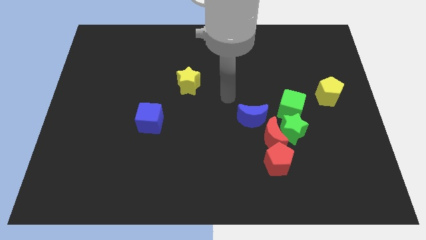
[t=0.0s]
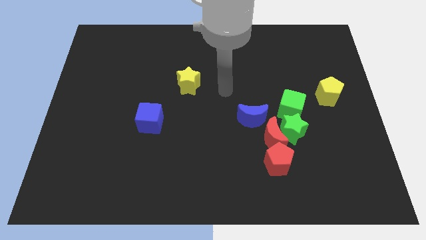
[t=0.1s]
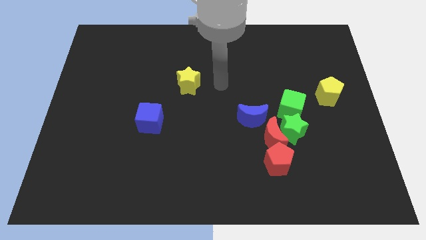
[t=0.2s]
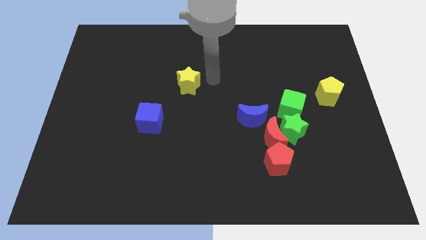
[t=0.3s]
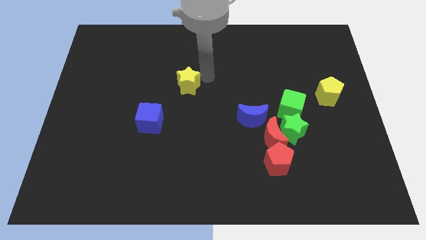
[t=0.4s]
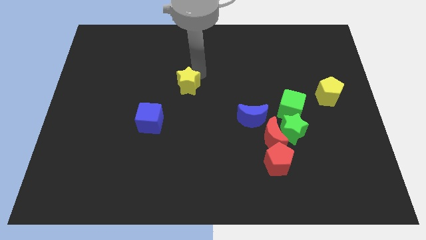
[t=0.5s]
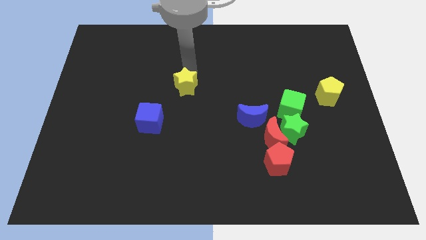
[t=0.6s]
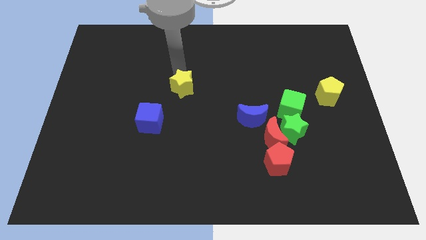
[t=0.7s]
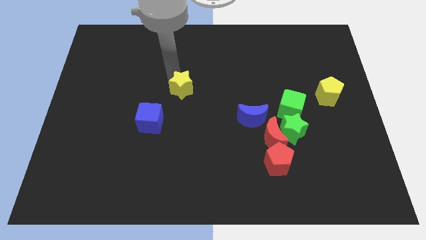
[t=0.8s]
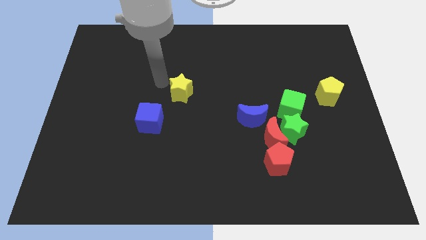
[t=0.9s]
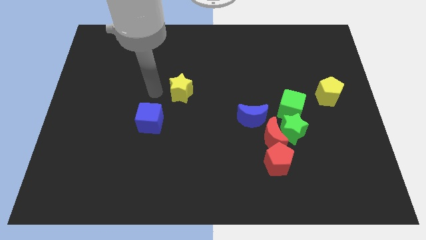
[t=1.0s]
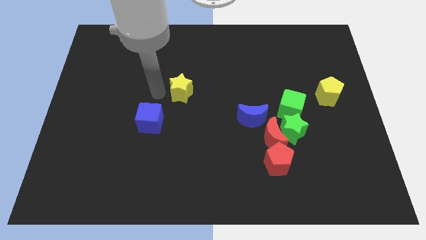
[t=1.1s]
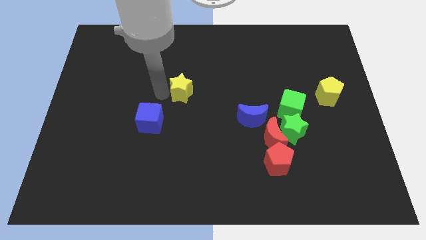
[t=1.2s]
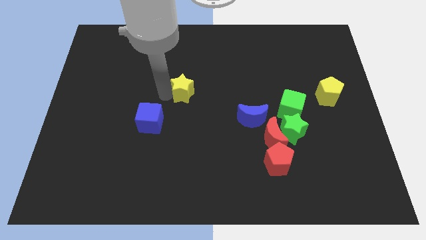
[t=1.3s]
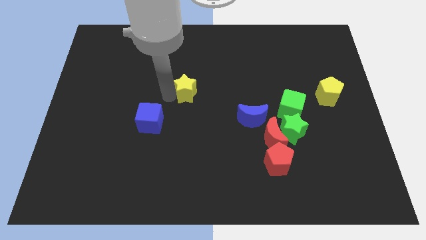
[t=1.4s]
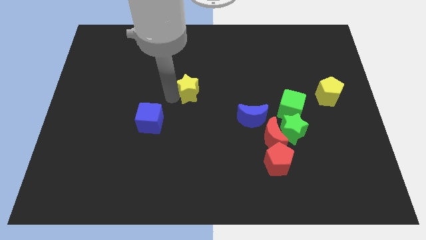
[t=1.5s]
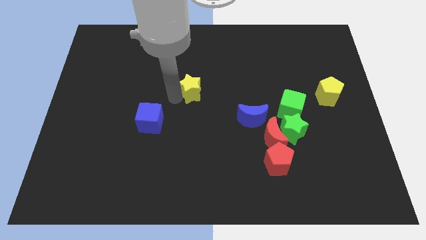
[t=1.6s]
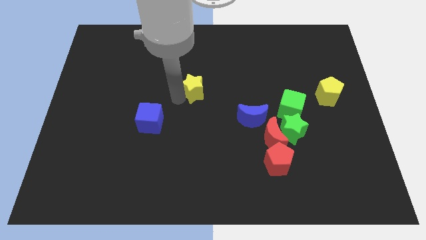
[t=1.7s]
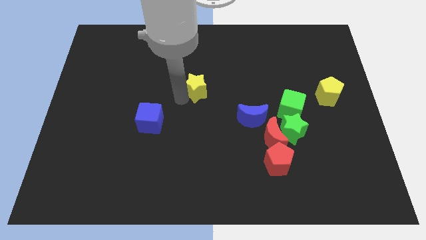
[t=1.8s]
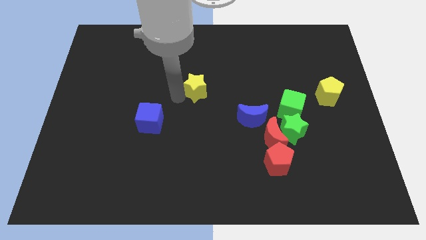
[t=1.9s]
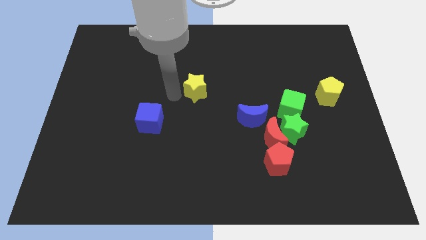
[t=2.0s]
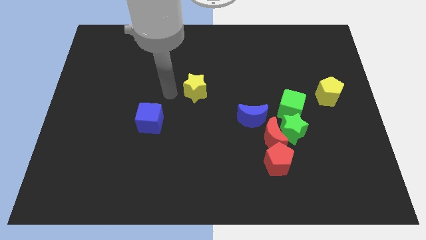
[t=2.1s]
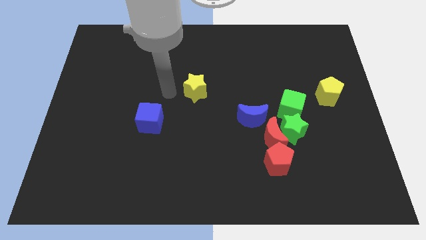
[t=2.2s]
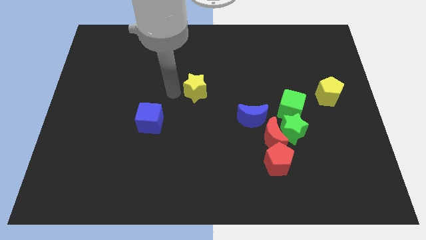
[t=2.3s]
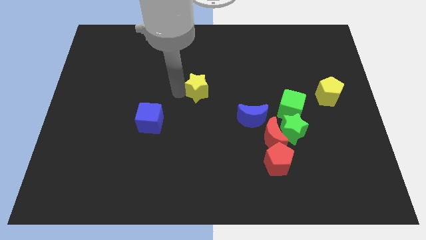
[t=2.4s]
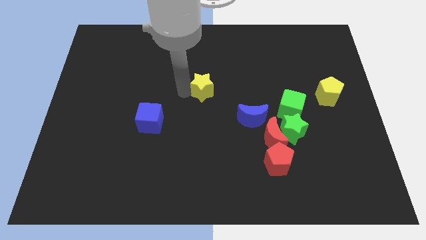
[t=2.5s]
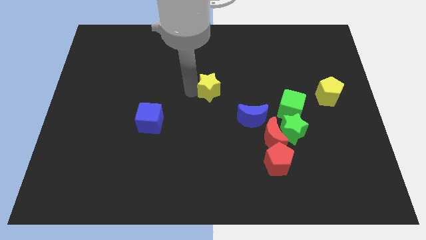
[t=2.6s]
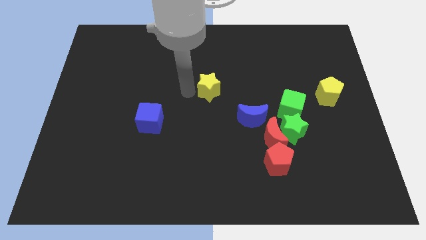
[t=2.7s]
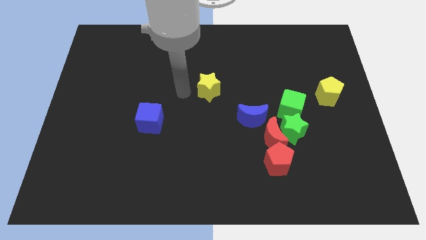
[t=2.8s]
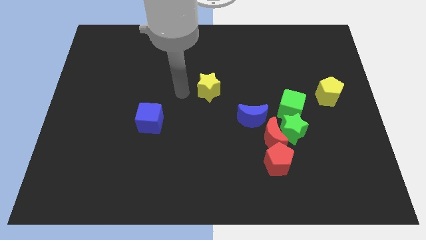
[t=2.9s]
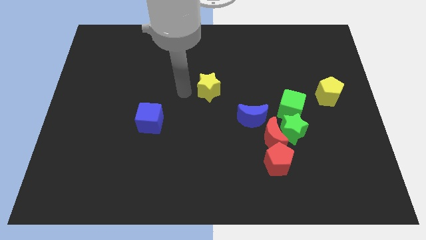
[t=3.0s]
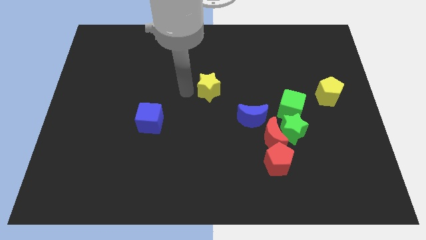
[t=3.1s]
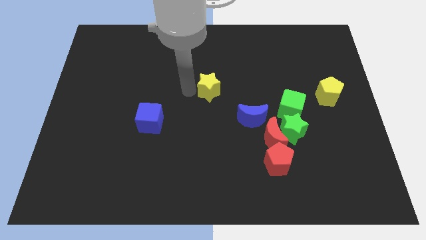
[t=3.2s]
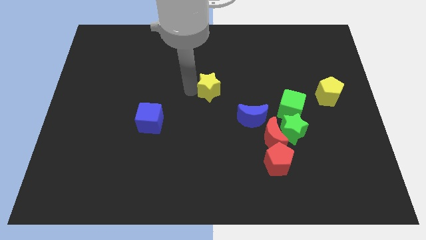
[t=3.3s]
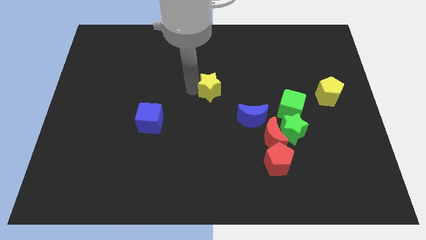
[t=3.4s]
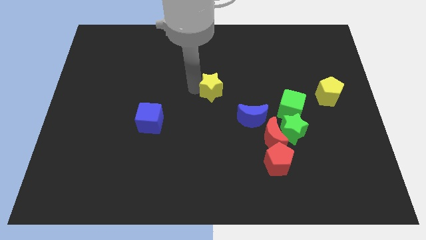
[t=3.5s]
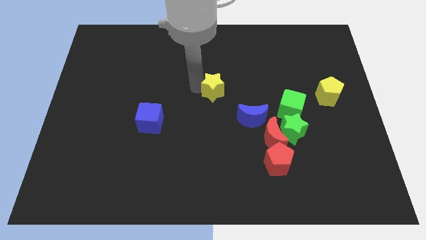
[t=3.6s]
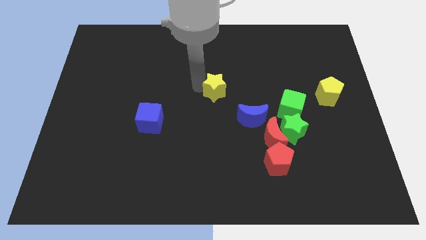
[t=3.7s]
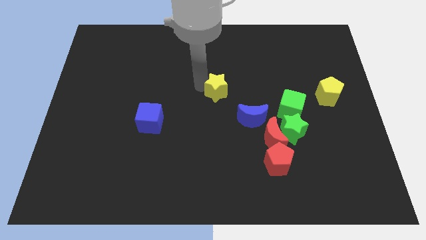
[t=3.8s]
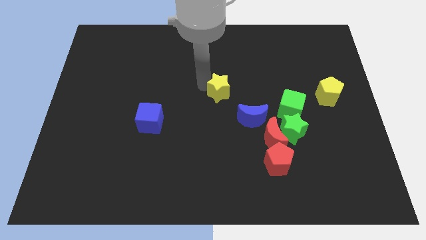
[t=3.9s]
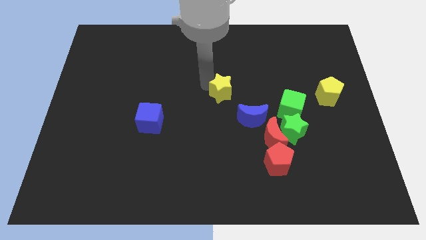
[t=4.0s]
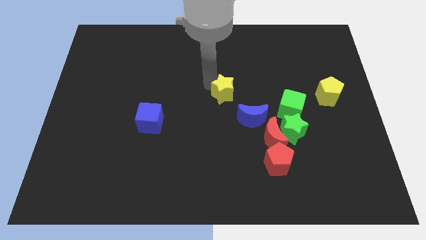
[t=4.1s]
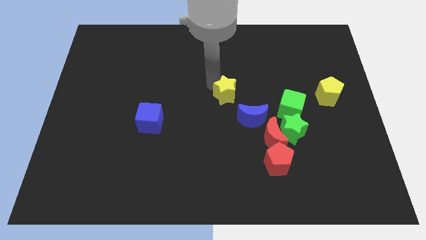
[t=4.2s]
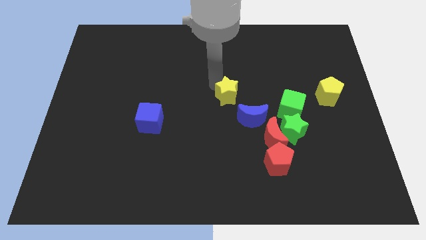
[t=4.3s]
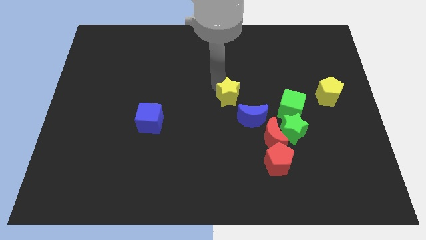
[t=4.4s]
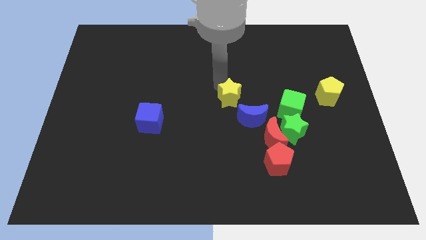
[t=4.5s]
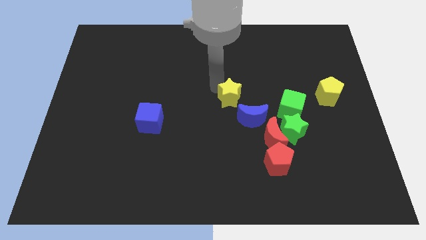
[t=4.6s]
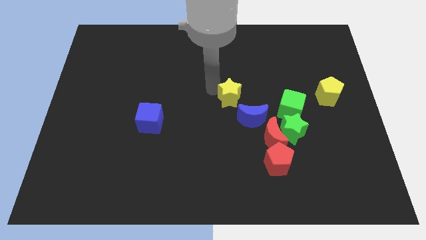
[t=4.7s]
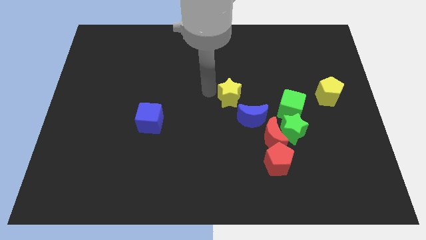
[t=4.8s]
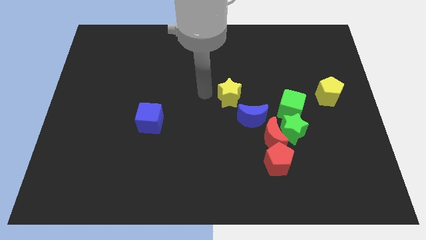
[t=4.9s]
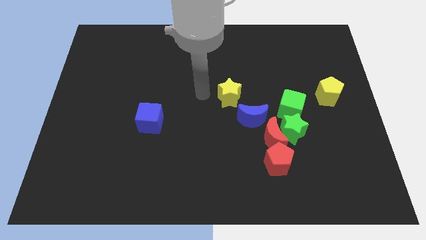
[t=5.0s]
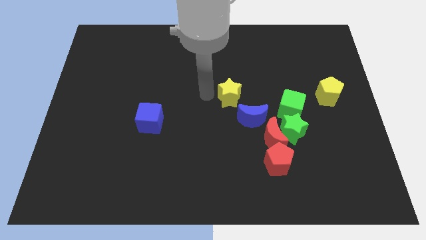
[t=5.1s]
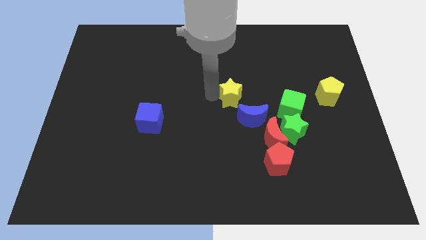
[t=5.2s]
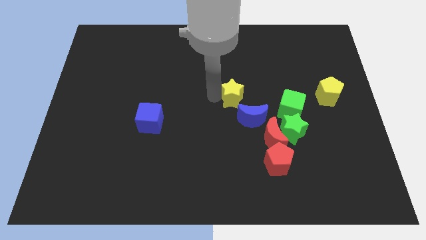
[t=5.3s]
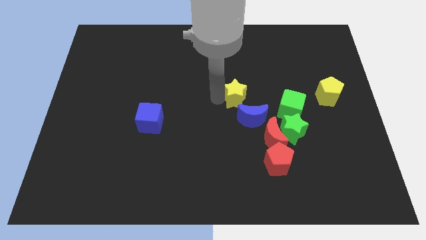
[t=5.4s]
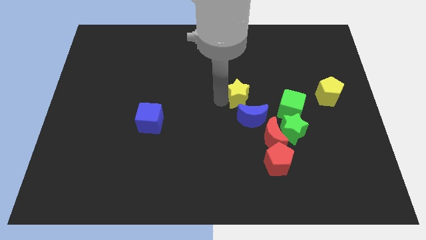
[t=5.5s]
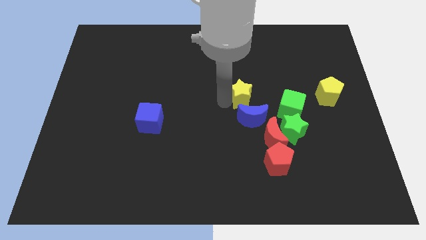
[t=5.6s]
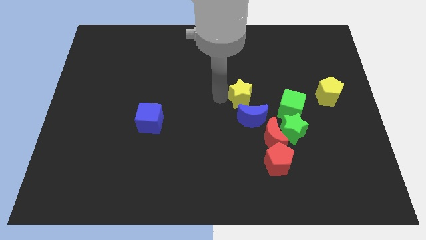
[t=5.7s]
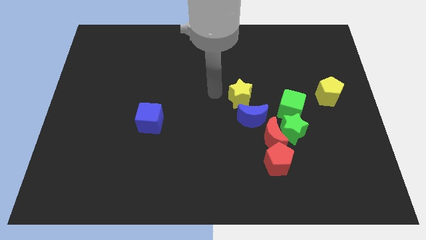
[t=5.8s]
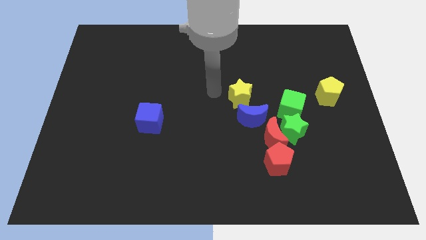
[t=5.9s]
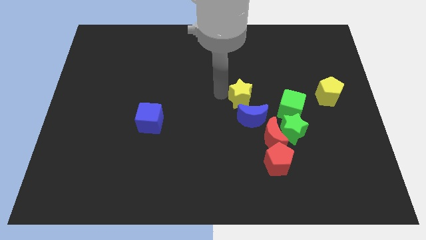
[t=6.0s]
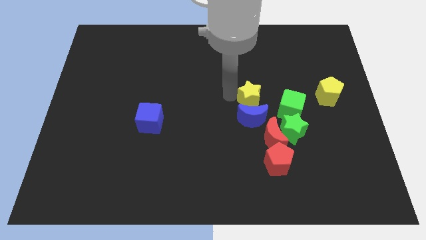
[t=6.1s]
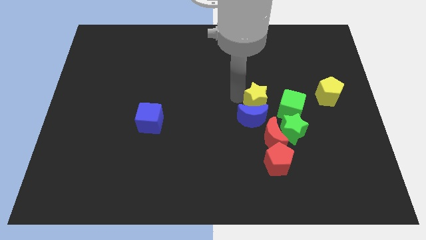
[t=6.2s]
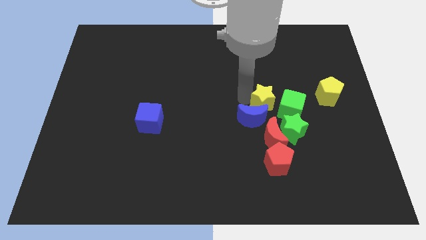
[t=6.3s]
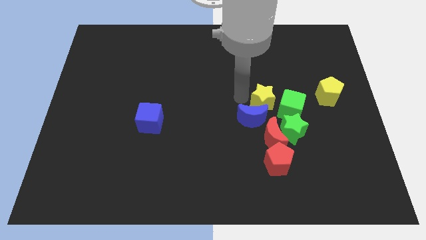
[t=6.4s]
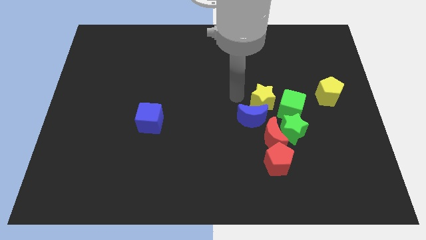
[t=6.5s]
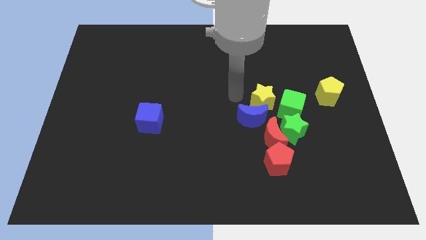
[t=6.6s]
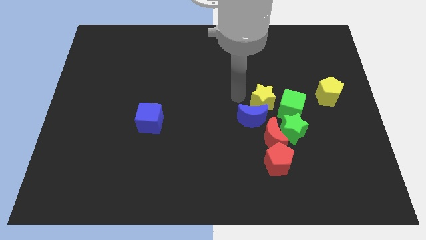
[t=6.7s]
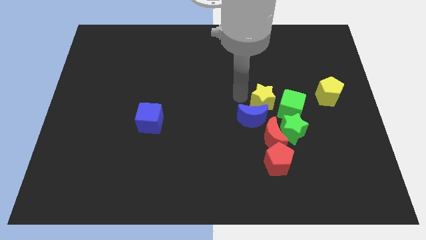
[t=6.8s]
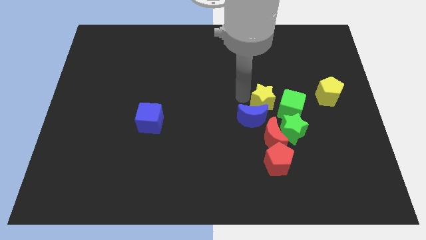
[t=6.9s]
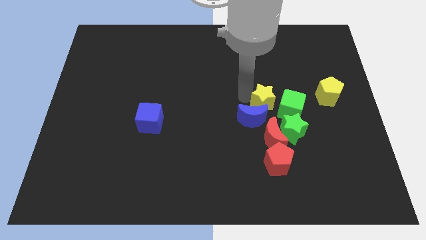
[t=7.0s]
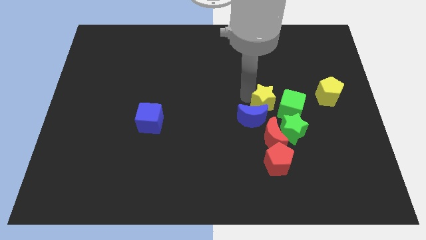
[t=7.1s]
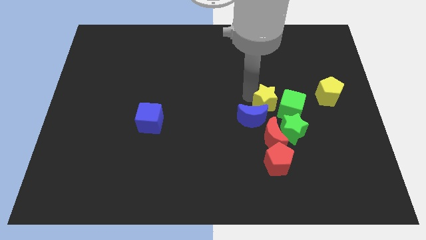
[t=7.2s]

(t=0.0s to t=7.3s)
move the yellow star towards the green cube

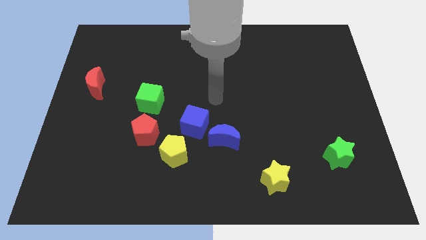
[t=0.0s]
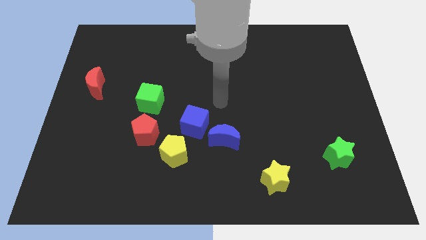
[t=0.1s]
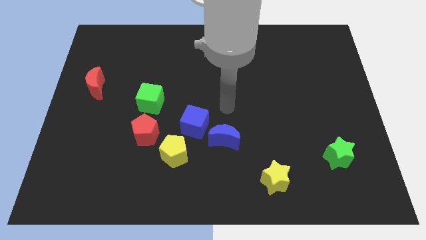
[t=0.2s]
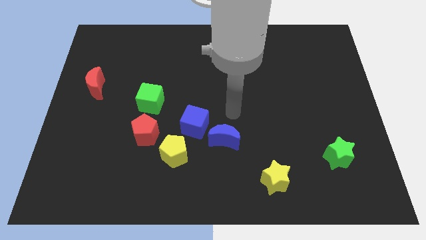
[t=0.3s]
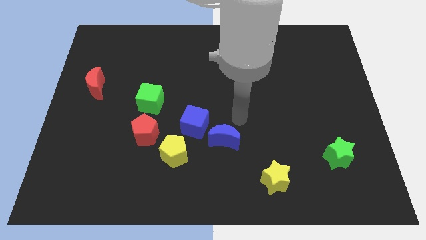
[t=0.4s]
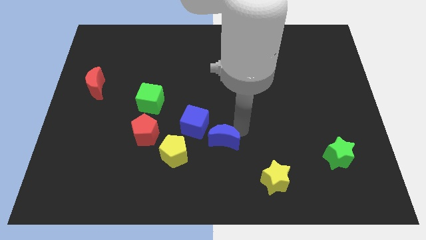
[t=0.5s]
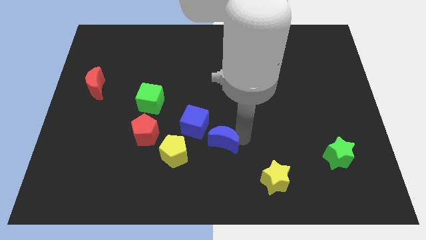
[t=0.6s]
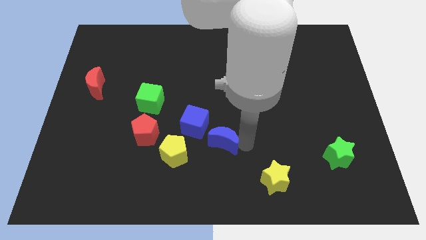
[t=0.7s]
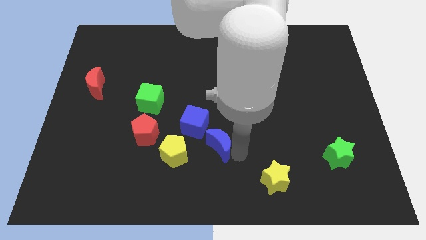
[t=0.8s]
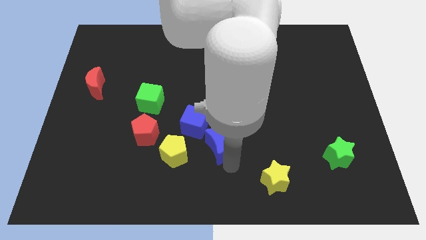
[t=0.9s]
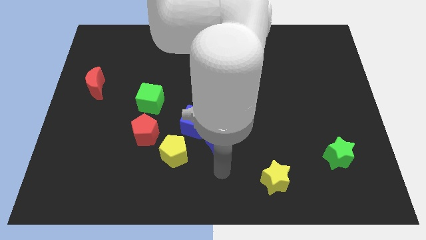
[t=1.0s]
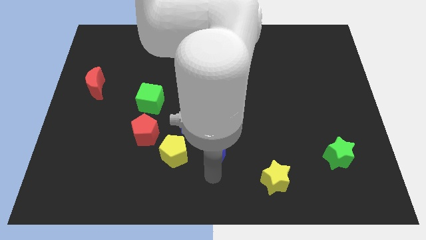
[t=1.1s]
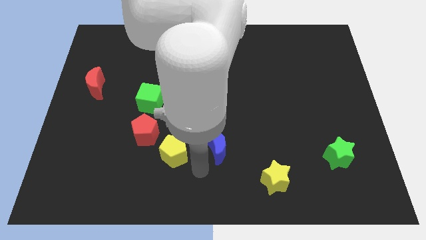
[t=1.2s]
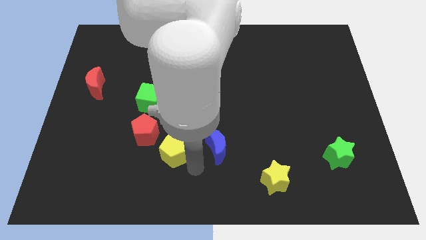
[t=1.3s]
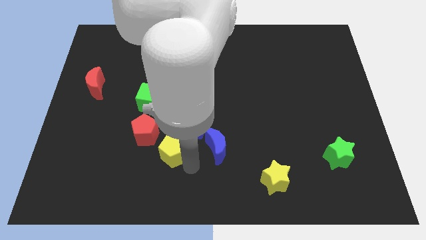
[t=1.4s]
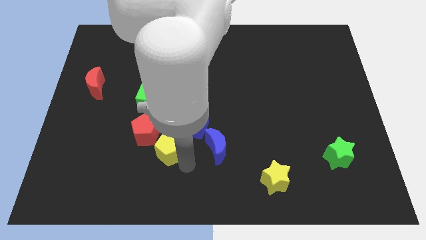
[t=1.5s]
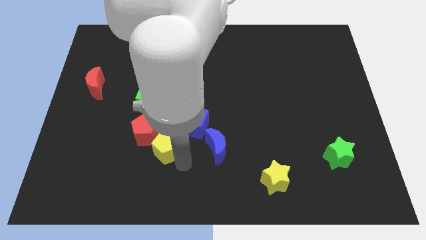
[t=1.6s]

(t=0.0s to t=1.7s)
slide the yellow pentagon close to the red pentagon
